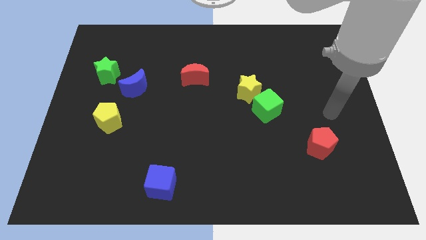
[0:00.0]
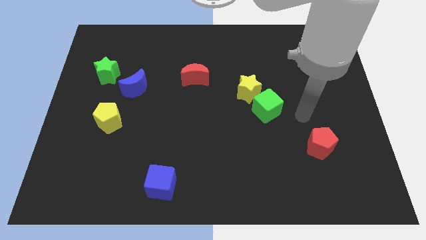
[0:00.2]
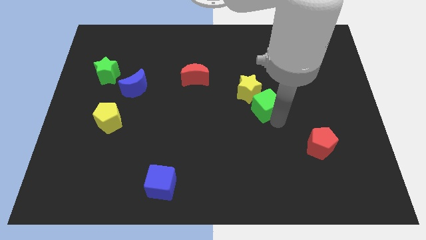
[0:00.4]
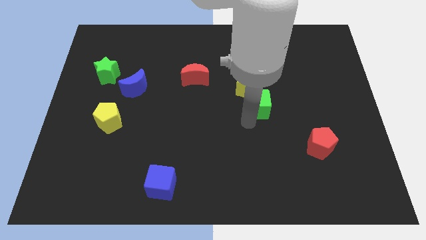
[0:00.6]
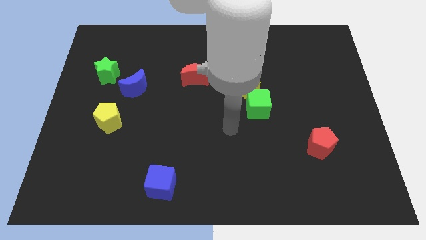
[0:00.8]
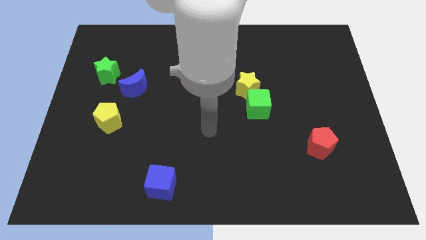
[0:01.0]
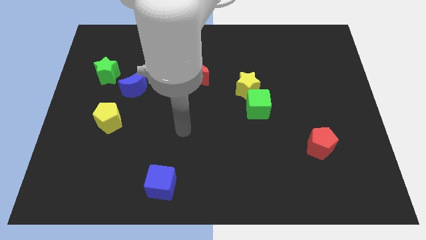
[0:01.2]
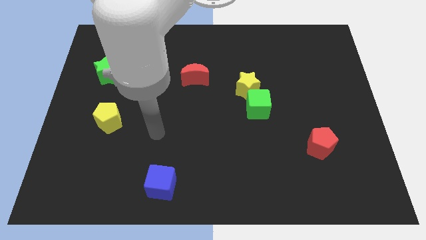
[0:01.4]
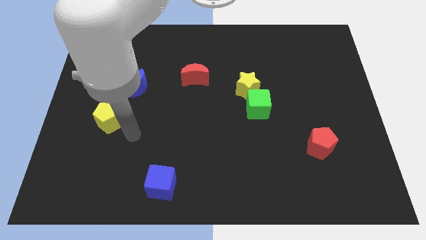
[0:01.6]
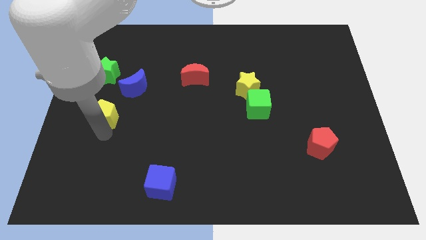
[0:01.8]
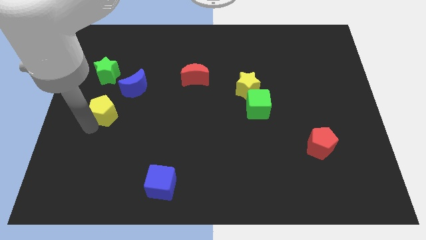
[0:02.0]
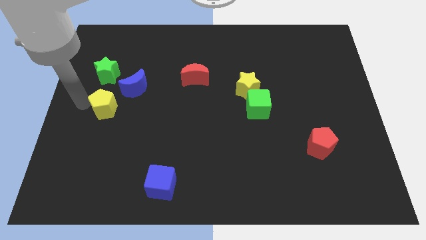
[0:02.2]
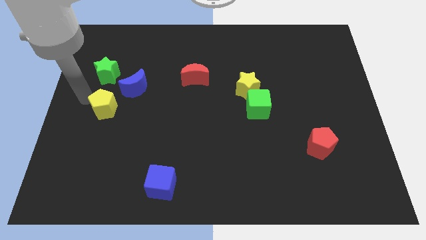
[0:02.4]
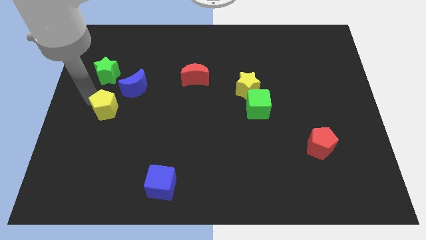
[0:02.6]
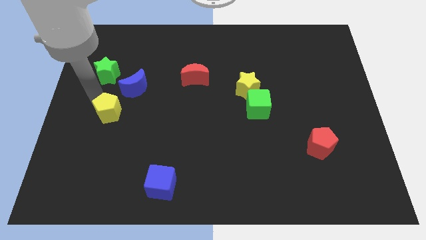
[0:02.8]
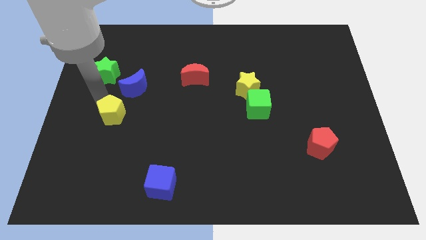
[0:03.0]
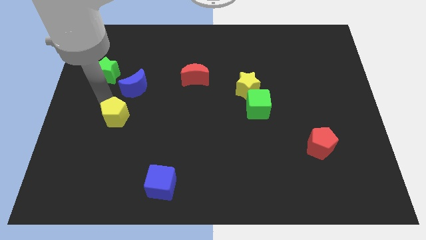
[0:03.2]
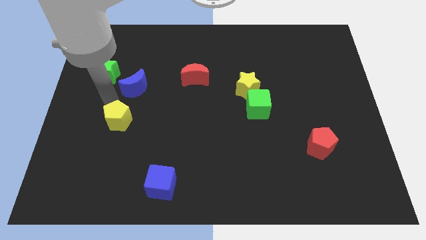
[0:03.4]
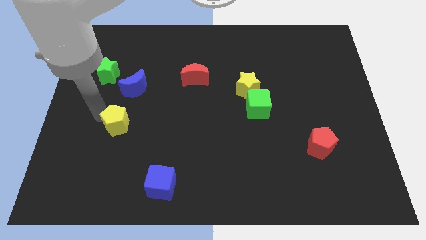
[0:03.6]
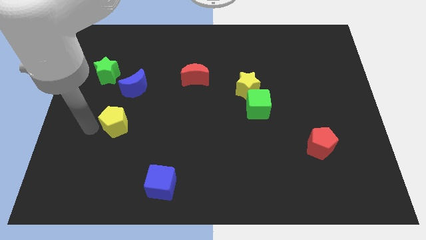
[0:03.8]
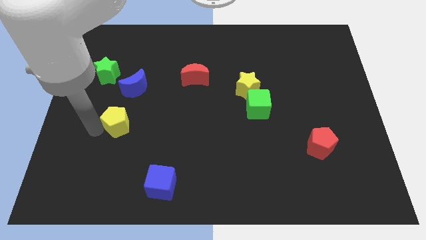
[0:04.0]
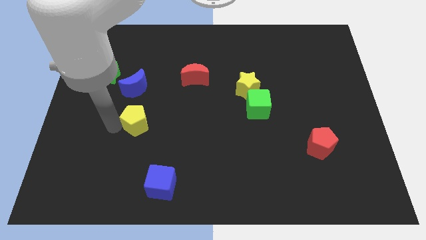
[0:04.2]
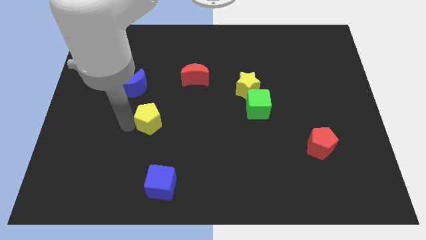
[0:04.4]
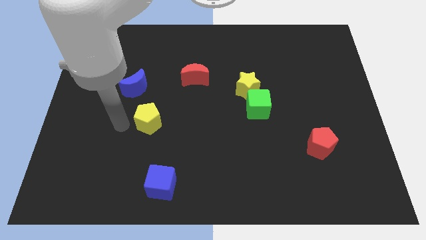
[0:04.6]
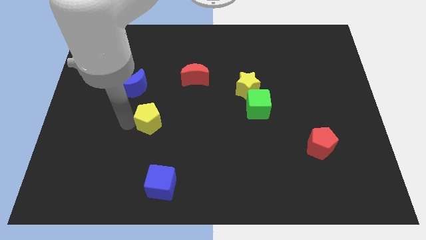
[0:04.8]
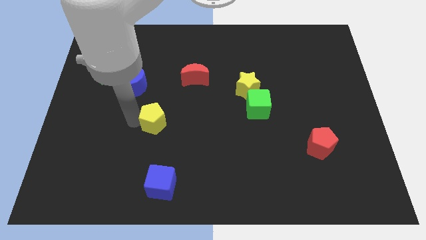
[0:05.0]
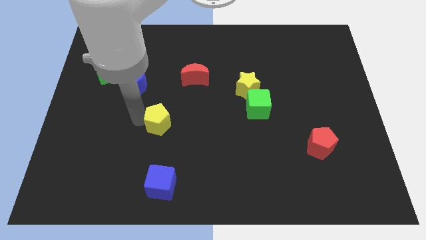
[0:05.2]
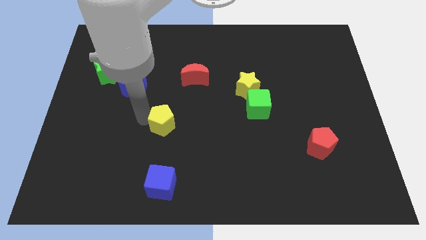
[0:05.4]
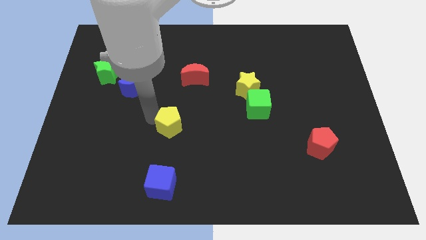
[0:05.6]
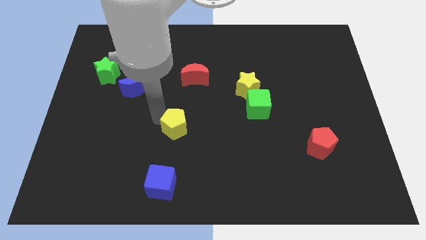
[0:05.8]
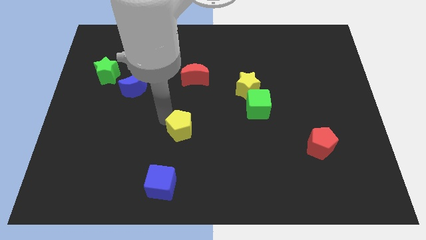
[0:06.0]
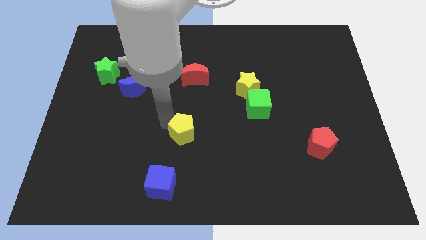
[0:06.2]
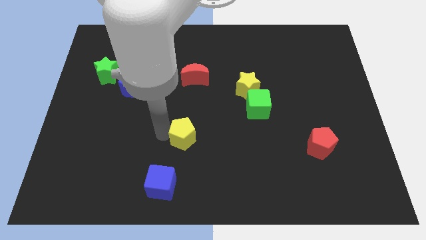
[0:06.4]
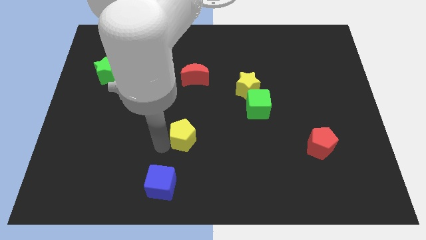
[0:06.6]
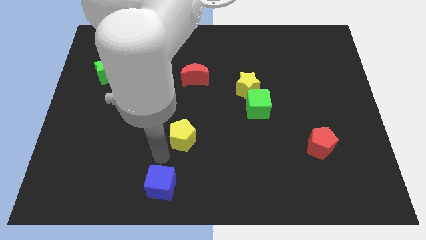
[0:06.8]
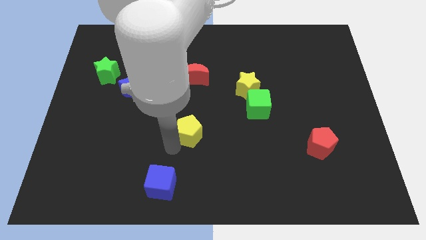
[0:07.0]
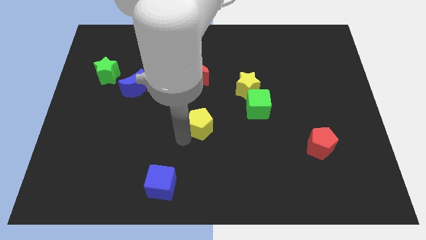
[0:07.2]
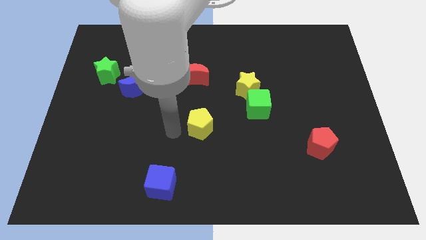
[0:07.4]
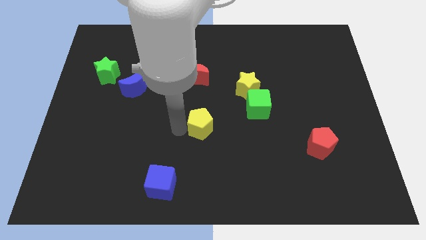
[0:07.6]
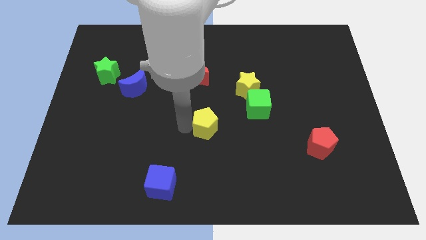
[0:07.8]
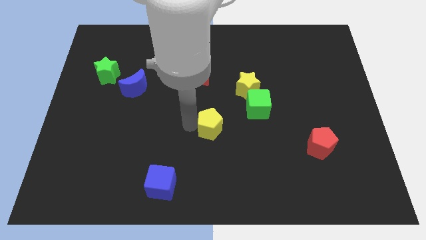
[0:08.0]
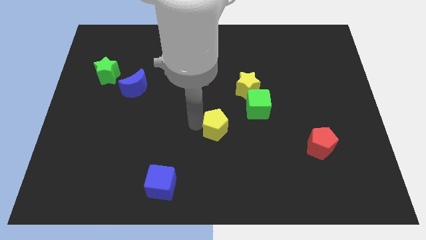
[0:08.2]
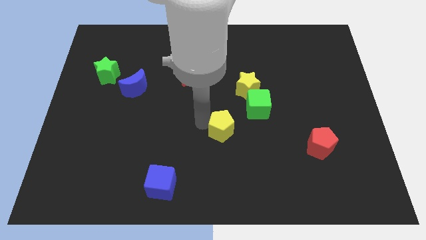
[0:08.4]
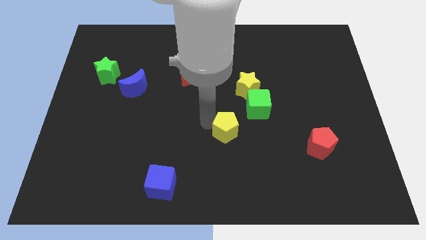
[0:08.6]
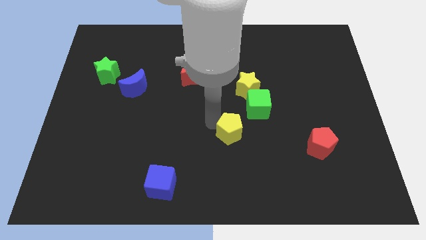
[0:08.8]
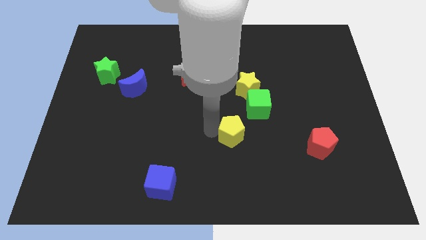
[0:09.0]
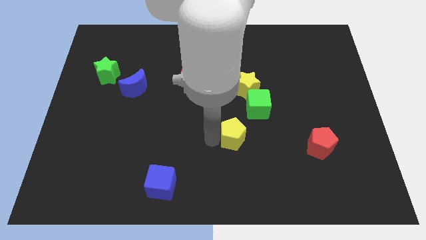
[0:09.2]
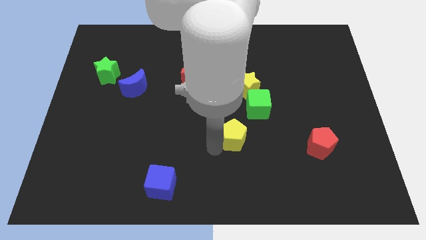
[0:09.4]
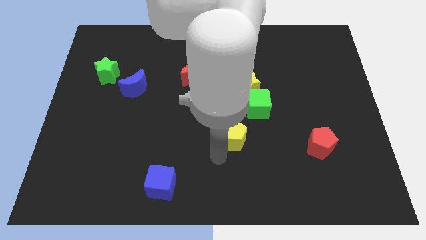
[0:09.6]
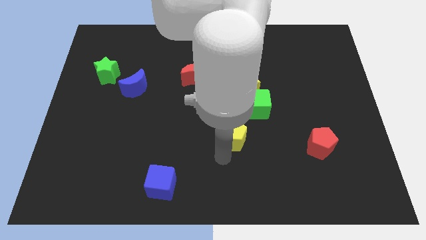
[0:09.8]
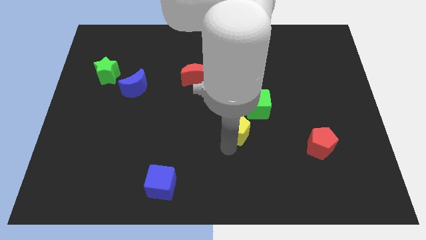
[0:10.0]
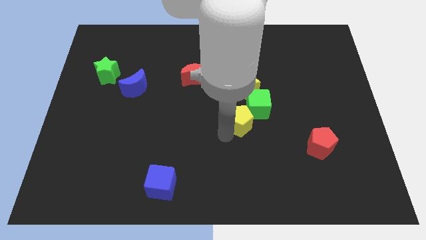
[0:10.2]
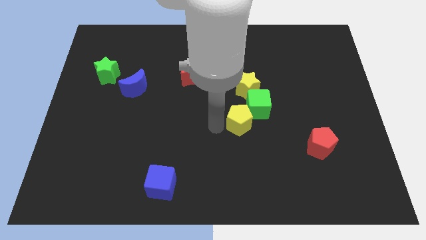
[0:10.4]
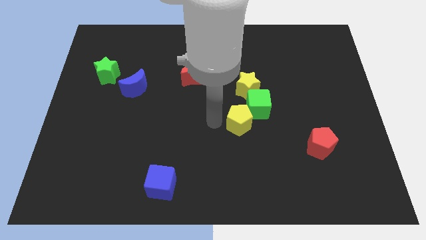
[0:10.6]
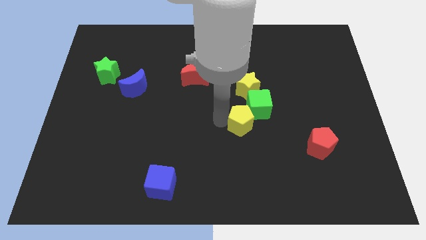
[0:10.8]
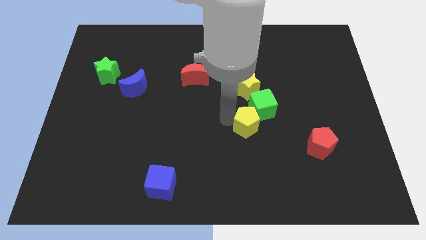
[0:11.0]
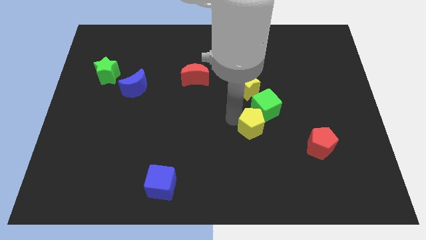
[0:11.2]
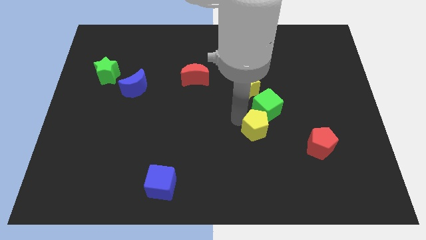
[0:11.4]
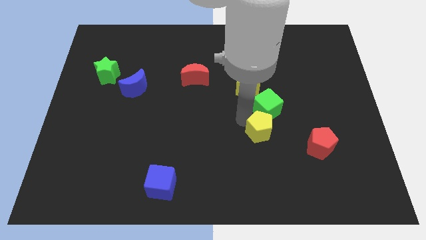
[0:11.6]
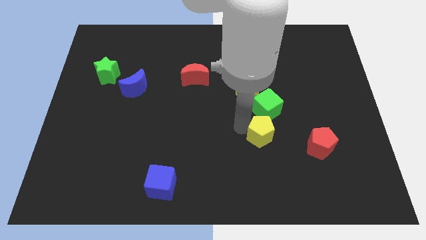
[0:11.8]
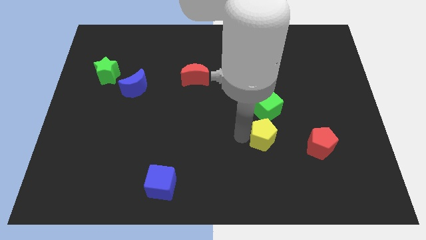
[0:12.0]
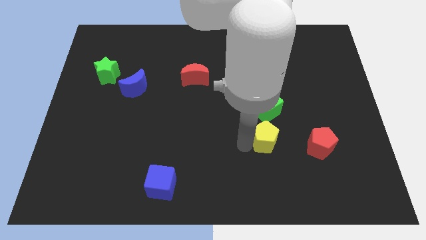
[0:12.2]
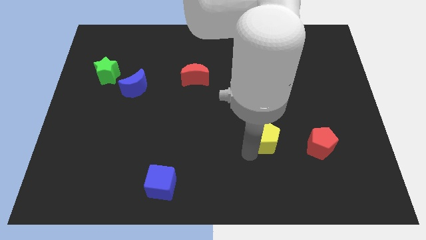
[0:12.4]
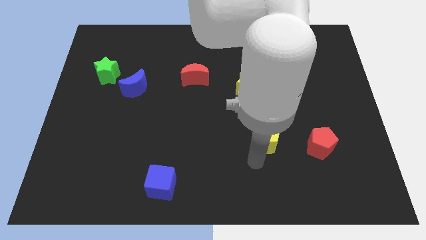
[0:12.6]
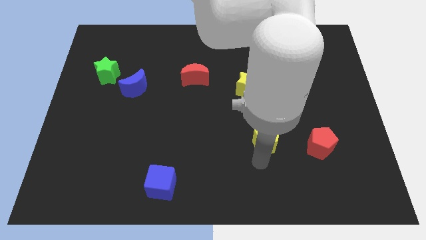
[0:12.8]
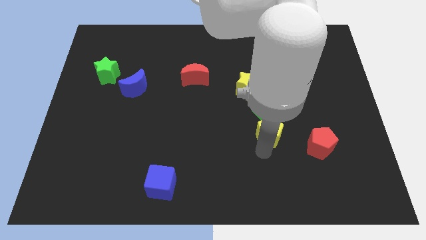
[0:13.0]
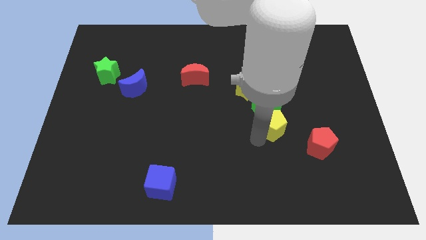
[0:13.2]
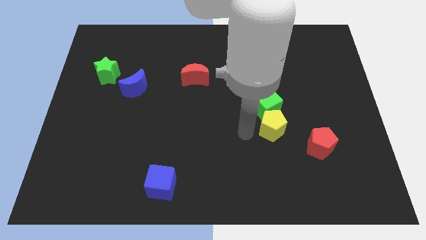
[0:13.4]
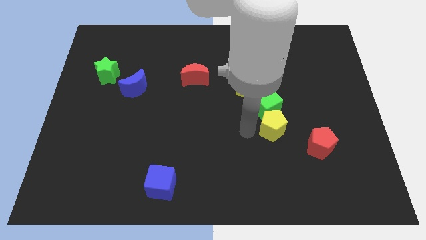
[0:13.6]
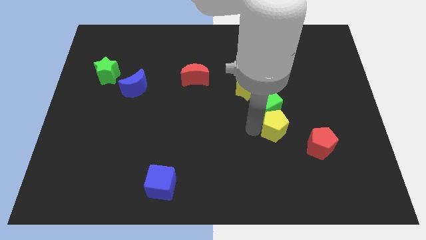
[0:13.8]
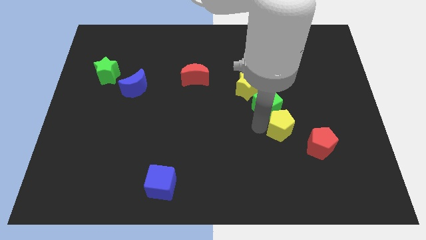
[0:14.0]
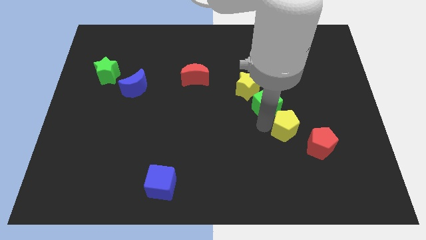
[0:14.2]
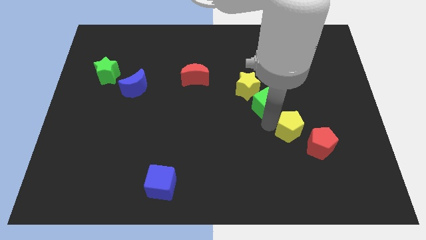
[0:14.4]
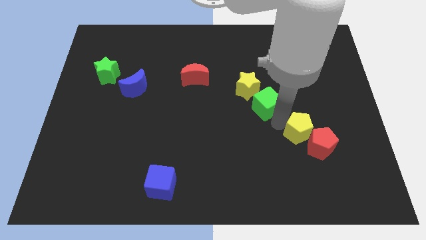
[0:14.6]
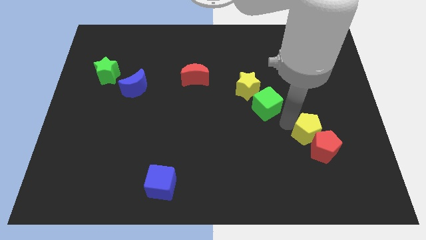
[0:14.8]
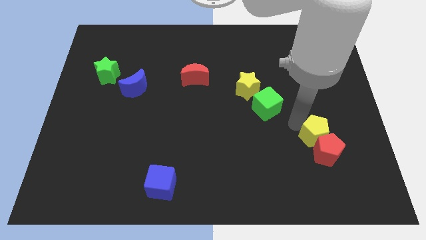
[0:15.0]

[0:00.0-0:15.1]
put the yellow pentagon diagonally up and to the right of the red pentagon
